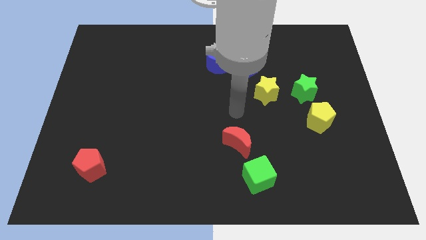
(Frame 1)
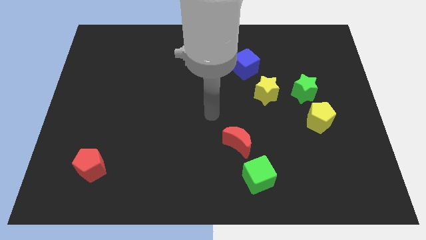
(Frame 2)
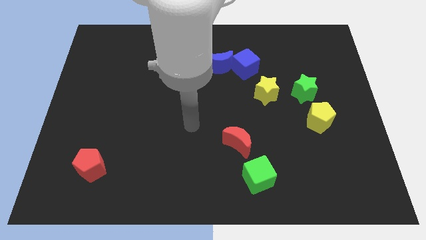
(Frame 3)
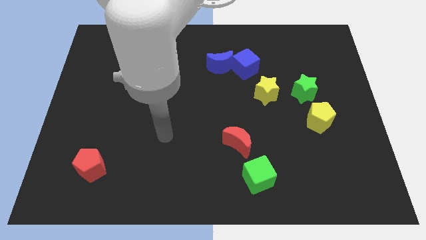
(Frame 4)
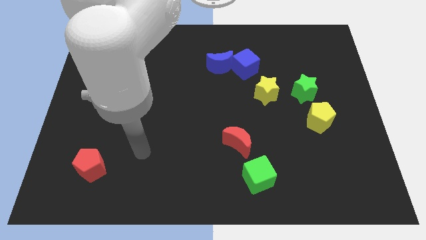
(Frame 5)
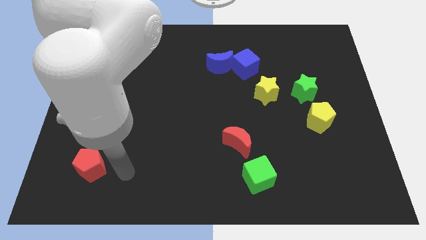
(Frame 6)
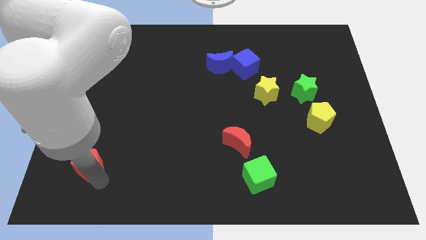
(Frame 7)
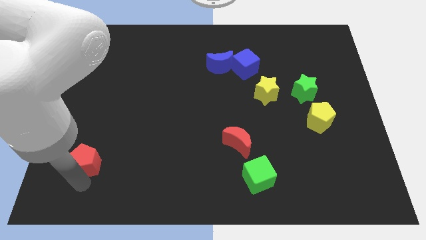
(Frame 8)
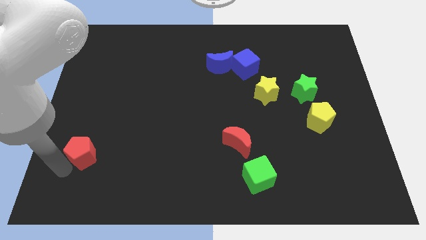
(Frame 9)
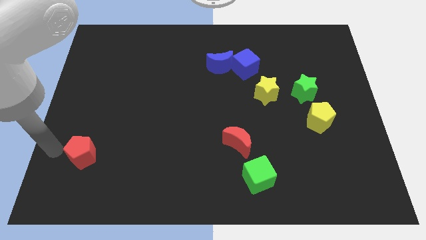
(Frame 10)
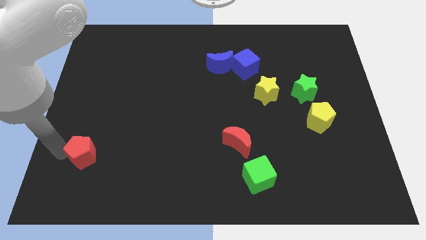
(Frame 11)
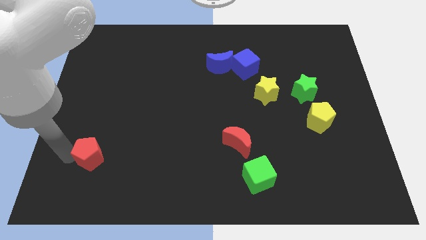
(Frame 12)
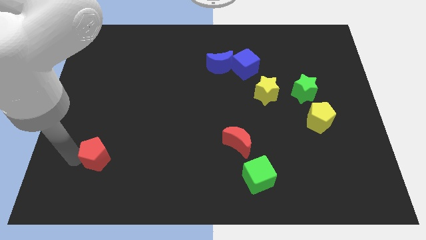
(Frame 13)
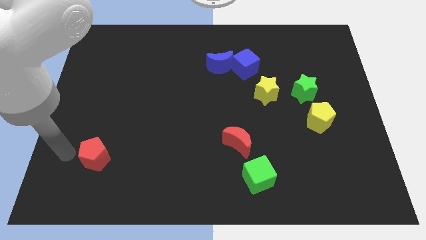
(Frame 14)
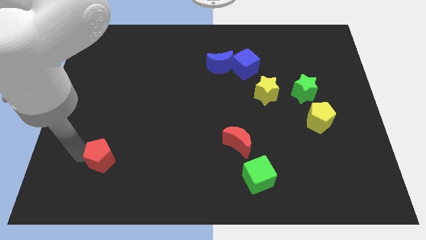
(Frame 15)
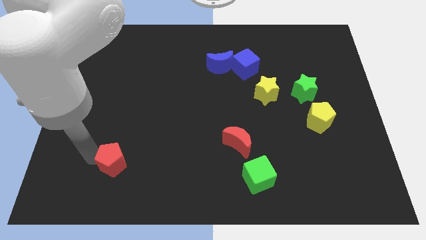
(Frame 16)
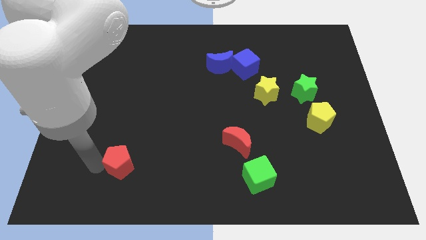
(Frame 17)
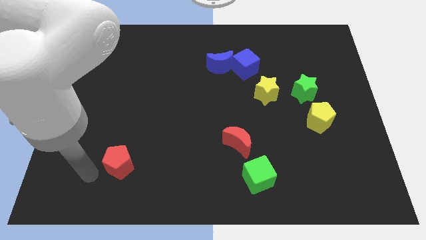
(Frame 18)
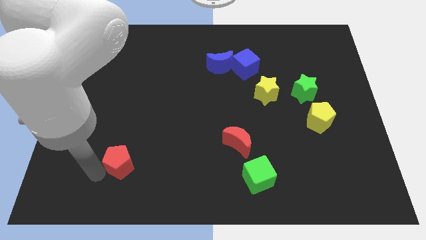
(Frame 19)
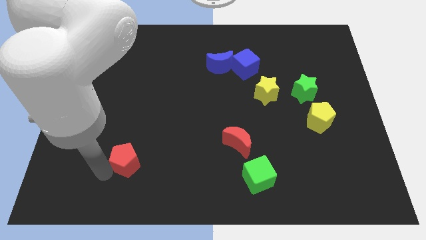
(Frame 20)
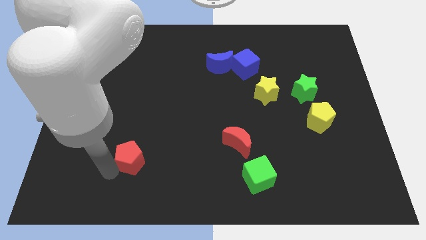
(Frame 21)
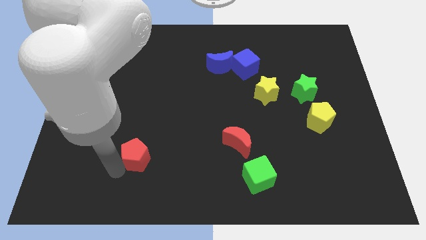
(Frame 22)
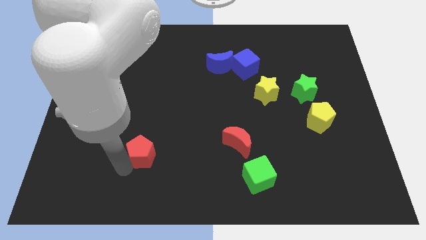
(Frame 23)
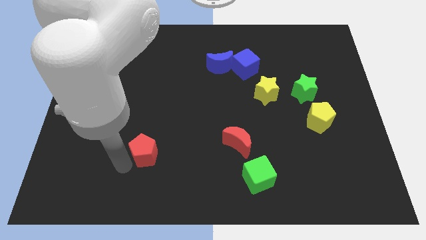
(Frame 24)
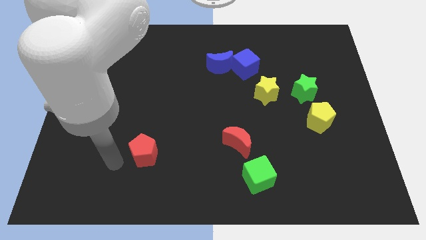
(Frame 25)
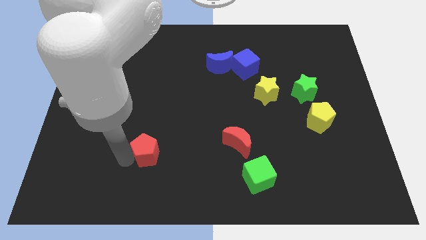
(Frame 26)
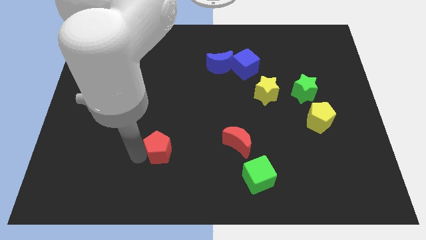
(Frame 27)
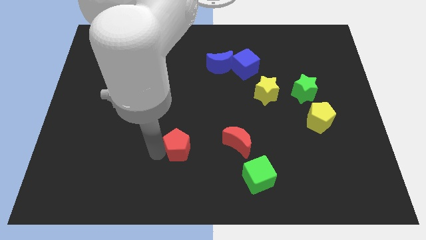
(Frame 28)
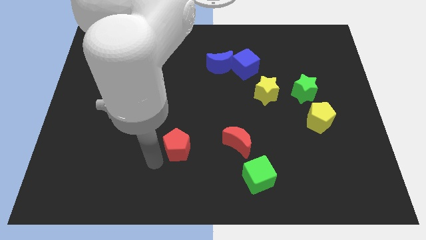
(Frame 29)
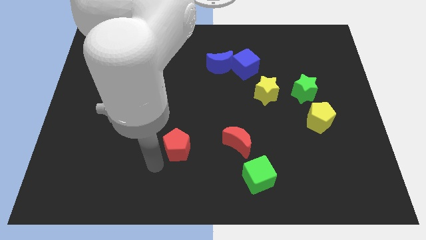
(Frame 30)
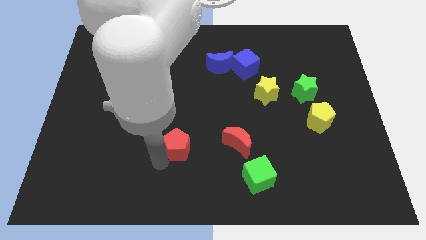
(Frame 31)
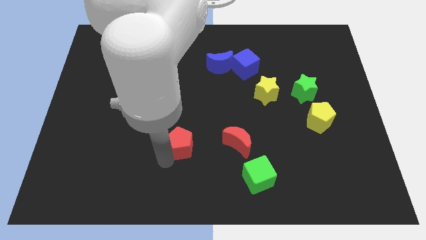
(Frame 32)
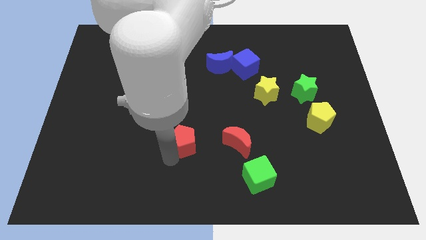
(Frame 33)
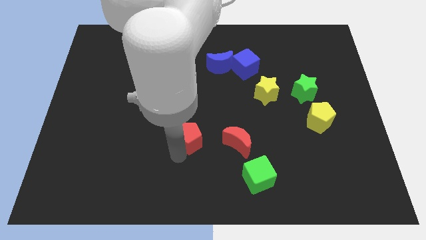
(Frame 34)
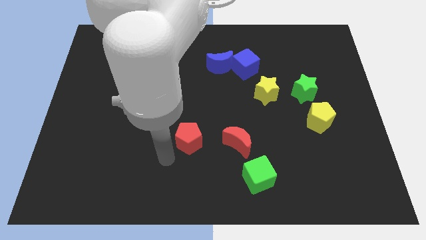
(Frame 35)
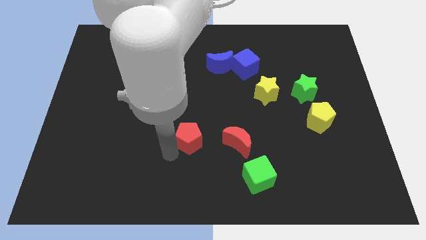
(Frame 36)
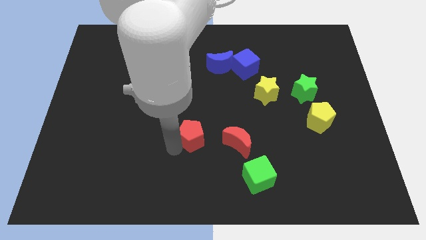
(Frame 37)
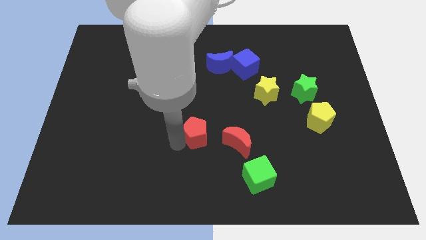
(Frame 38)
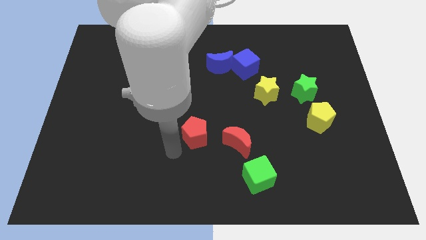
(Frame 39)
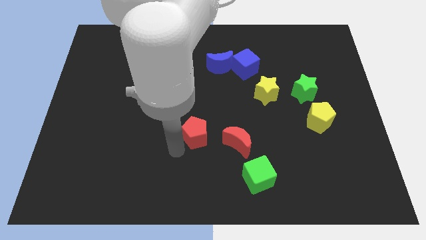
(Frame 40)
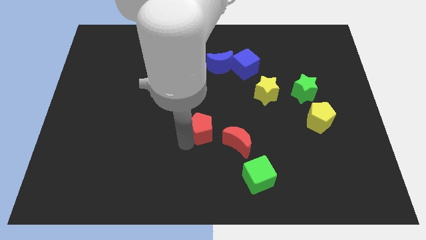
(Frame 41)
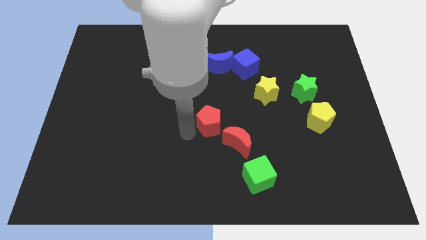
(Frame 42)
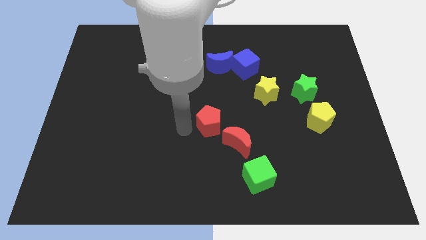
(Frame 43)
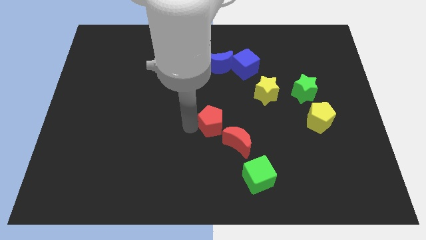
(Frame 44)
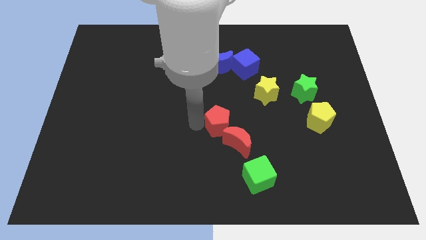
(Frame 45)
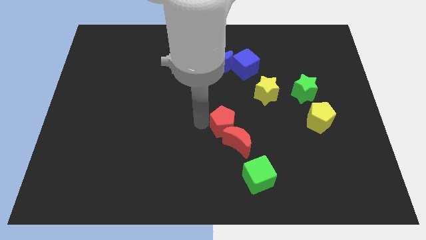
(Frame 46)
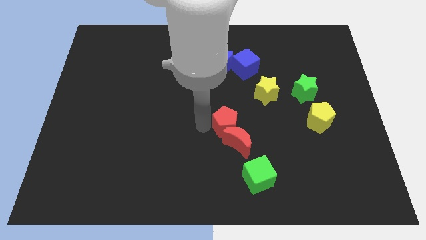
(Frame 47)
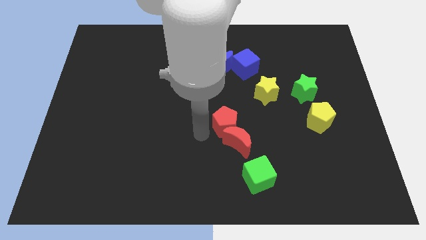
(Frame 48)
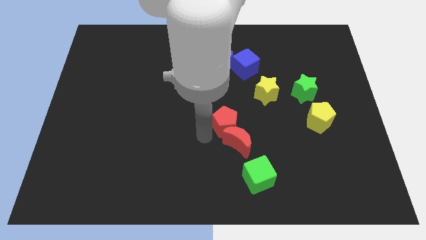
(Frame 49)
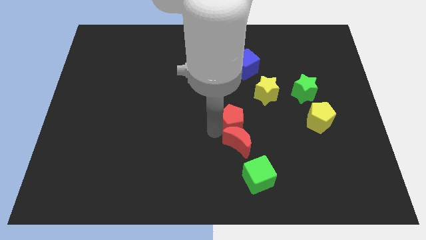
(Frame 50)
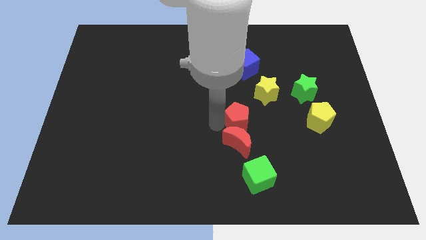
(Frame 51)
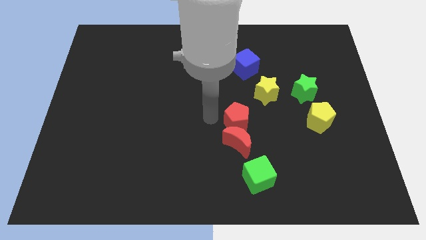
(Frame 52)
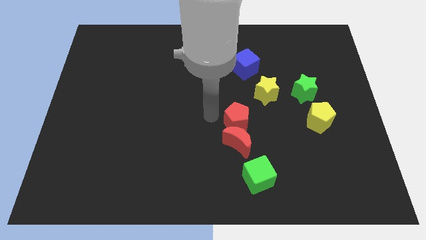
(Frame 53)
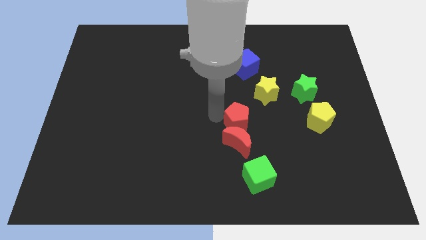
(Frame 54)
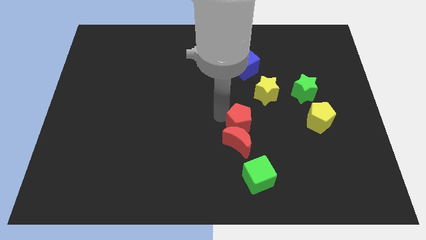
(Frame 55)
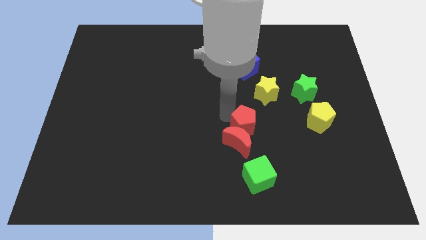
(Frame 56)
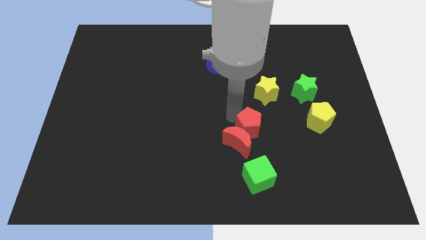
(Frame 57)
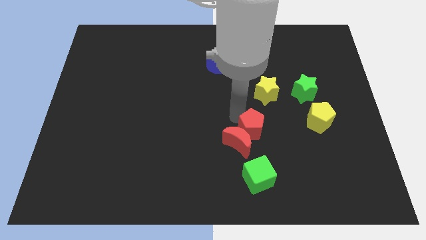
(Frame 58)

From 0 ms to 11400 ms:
put the red pentagon to the bottom side of the yellow star
